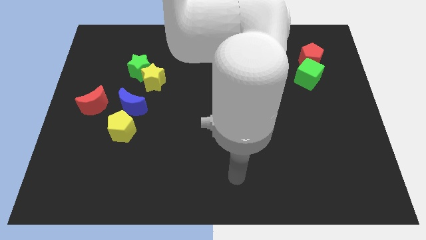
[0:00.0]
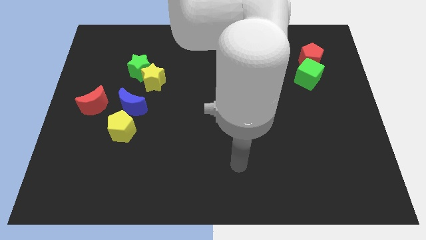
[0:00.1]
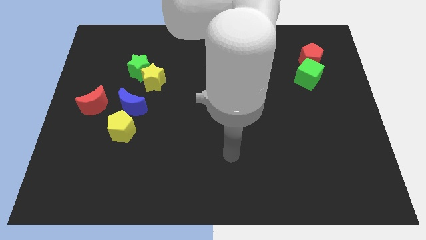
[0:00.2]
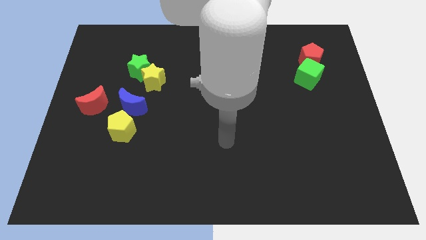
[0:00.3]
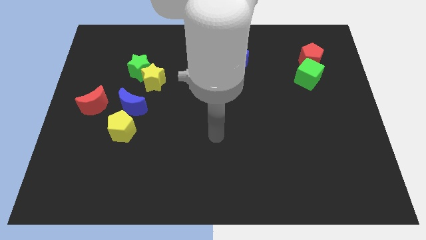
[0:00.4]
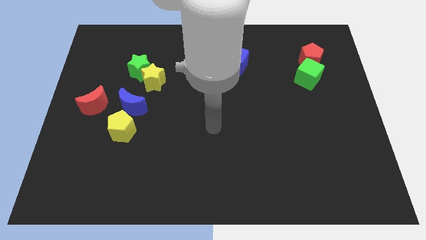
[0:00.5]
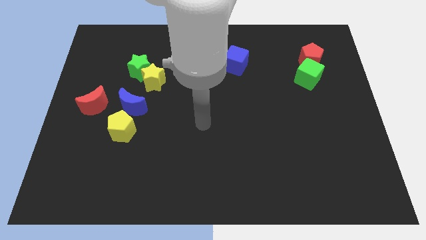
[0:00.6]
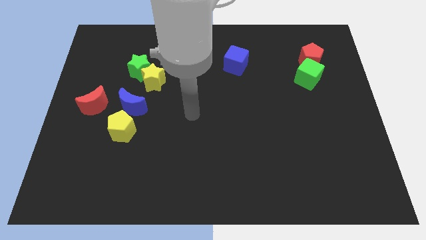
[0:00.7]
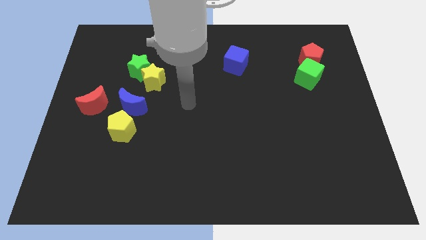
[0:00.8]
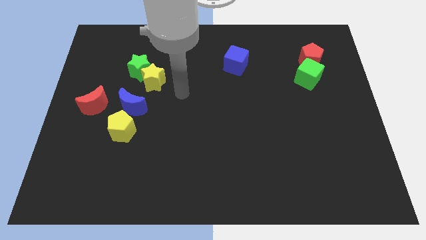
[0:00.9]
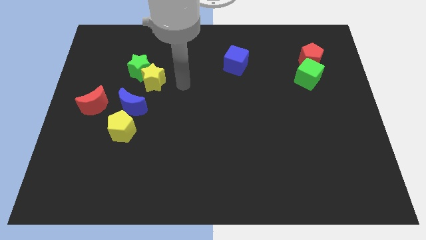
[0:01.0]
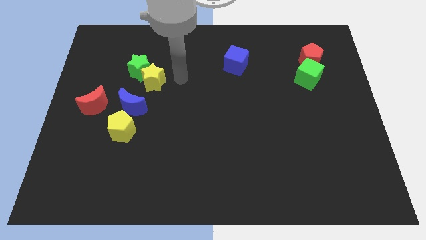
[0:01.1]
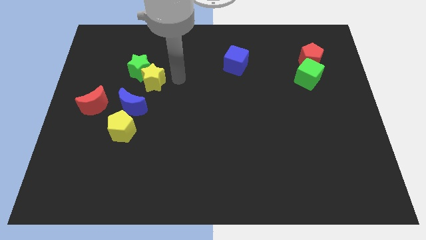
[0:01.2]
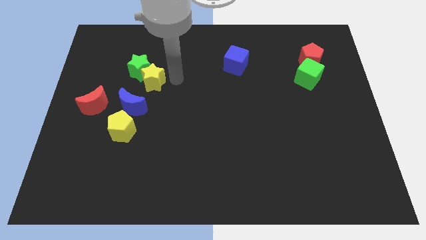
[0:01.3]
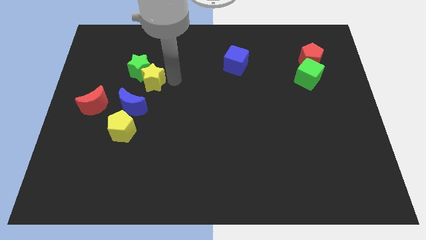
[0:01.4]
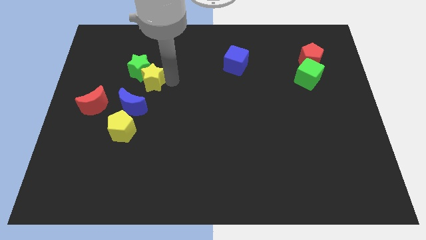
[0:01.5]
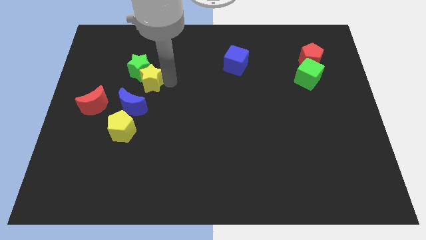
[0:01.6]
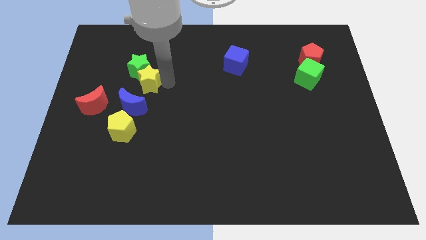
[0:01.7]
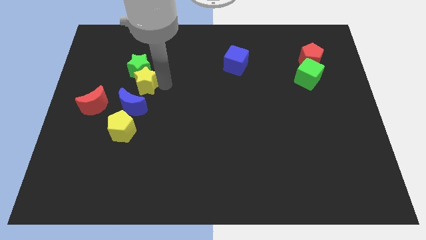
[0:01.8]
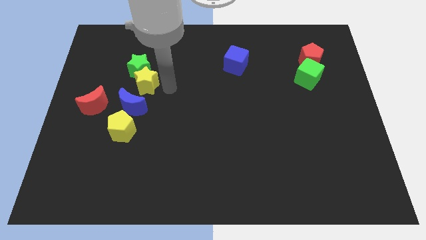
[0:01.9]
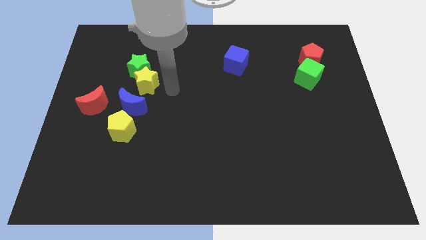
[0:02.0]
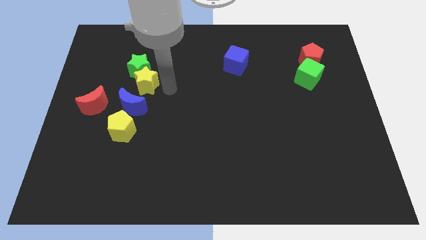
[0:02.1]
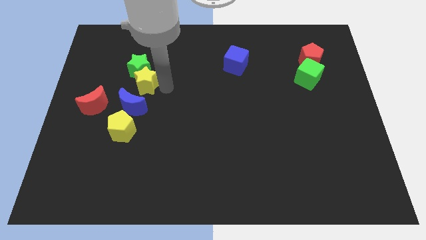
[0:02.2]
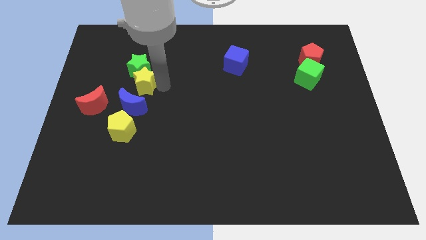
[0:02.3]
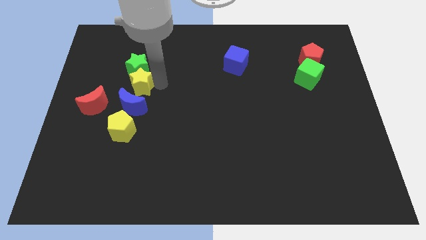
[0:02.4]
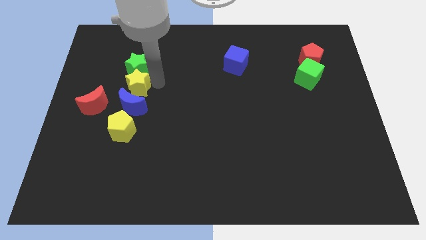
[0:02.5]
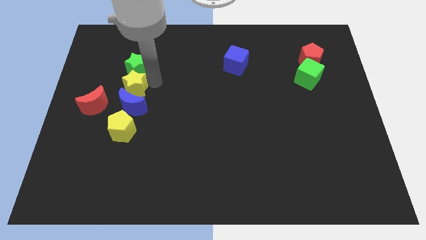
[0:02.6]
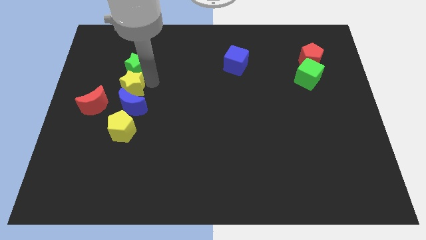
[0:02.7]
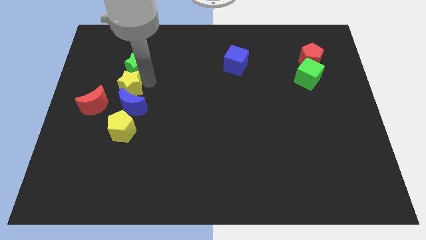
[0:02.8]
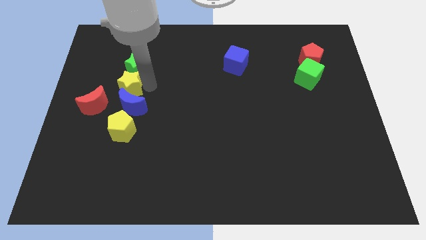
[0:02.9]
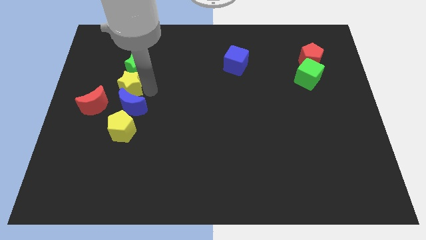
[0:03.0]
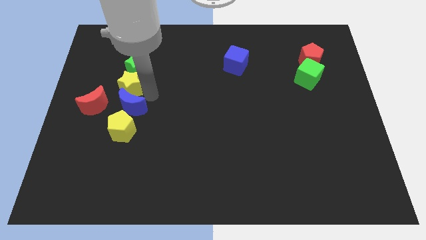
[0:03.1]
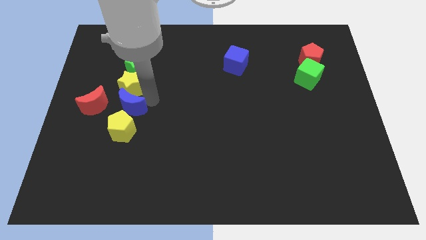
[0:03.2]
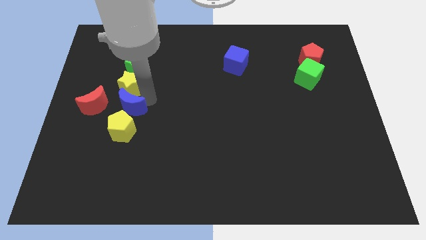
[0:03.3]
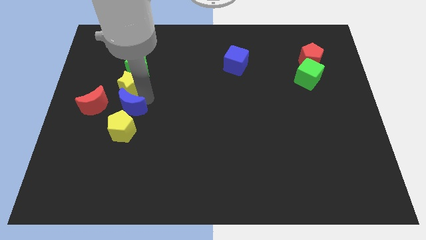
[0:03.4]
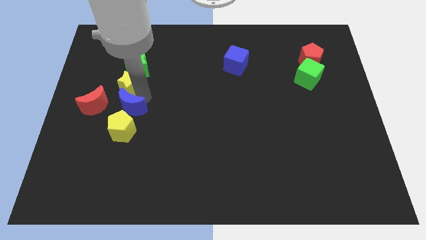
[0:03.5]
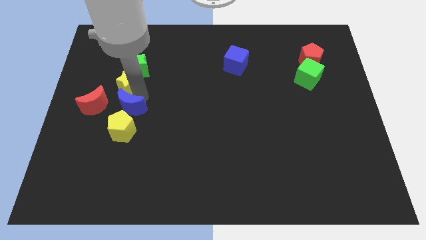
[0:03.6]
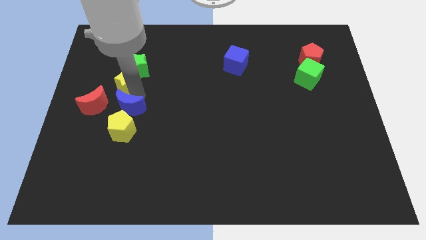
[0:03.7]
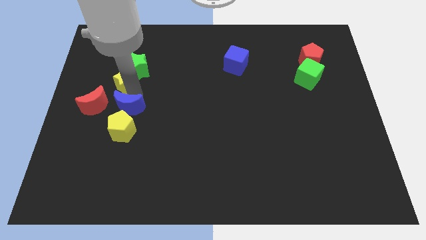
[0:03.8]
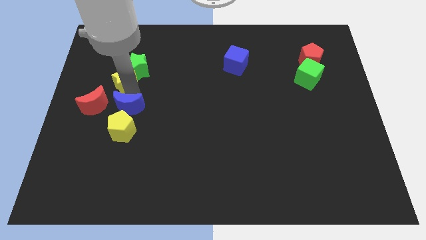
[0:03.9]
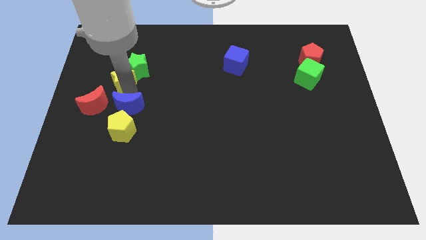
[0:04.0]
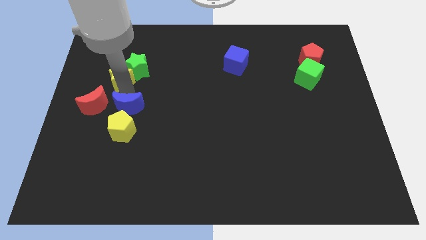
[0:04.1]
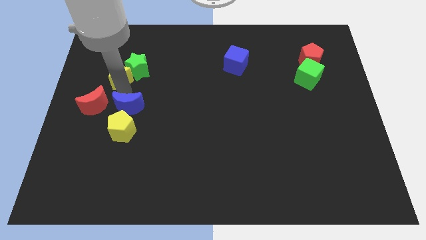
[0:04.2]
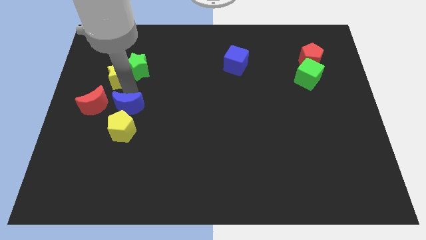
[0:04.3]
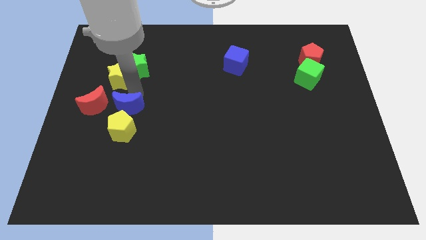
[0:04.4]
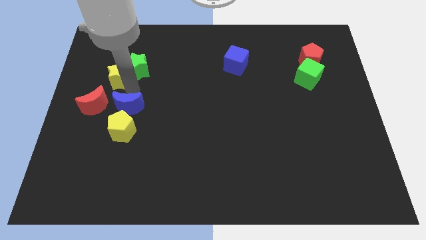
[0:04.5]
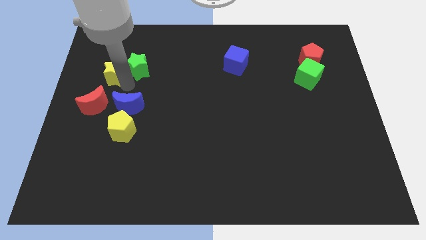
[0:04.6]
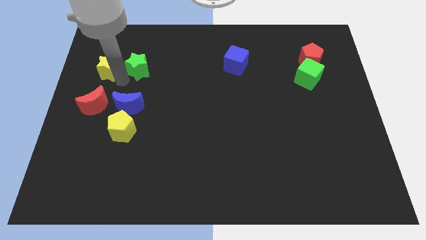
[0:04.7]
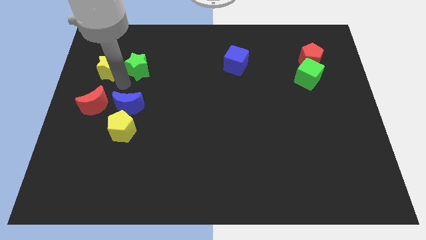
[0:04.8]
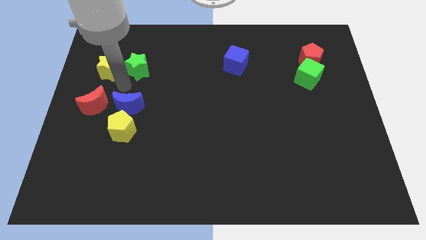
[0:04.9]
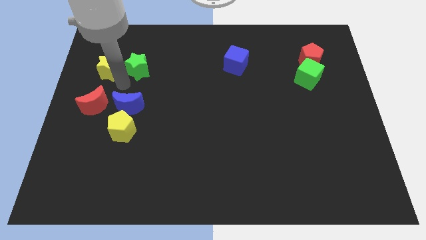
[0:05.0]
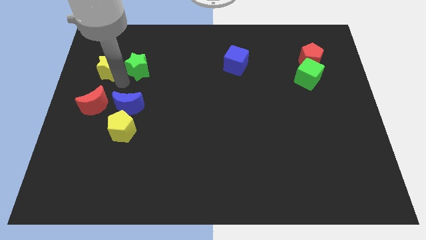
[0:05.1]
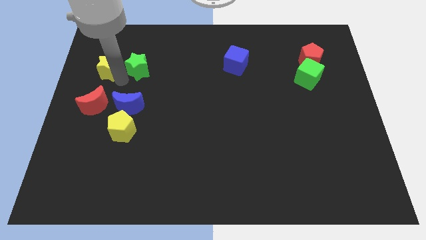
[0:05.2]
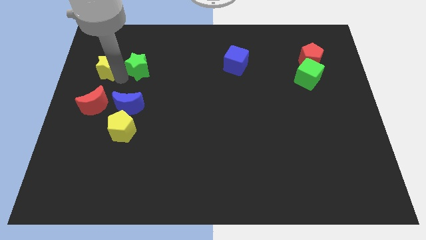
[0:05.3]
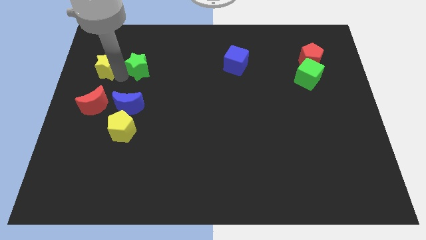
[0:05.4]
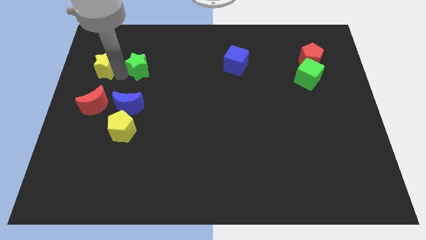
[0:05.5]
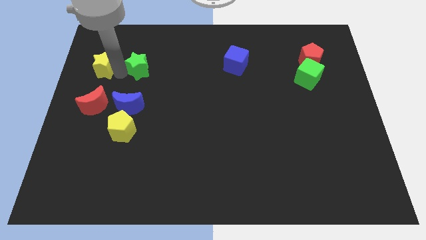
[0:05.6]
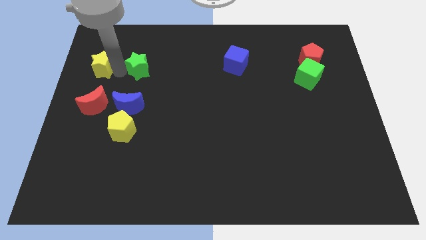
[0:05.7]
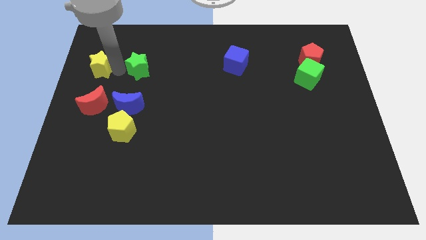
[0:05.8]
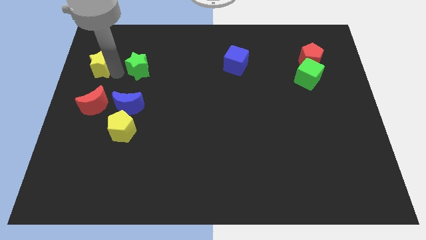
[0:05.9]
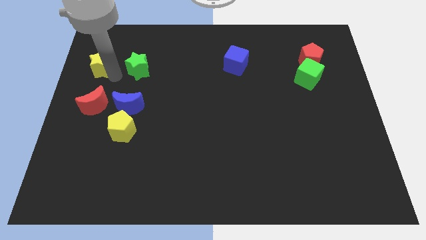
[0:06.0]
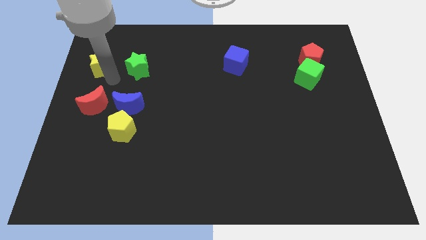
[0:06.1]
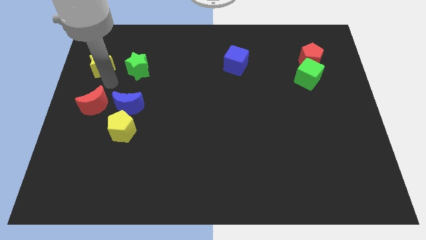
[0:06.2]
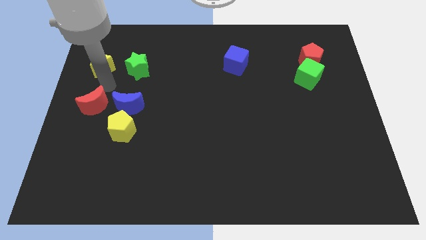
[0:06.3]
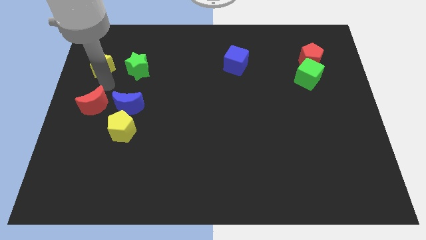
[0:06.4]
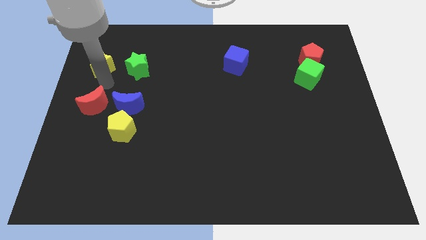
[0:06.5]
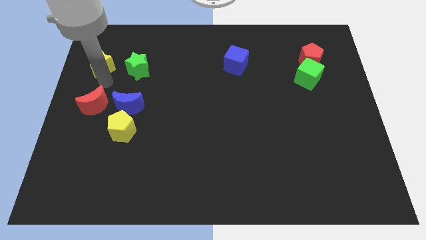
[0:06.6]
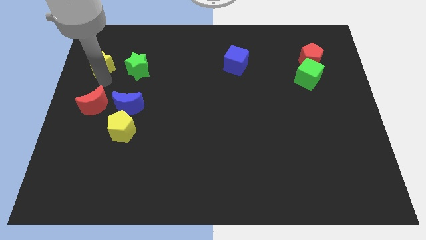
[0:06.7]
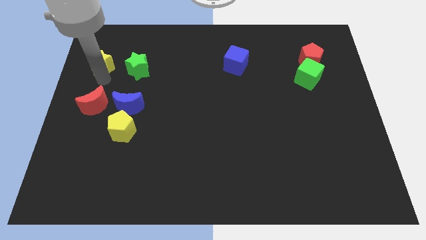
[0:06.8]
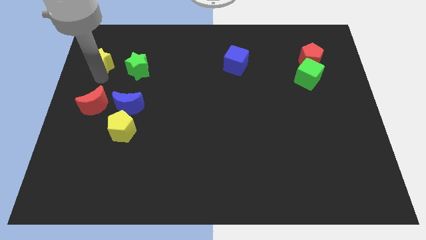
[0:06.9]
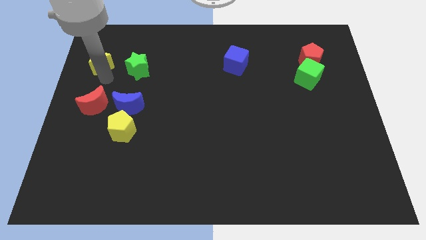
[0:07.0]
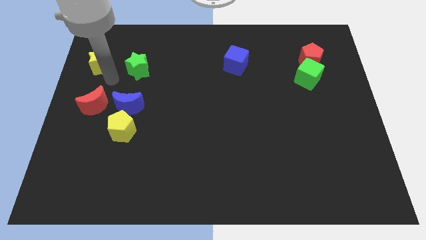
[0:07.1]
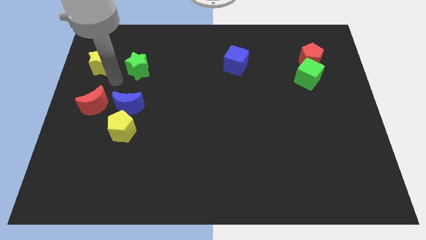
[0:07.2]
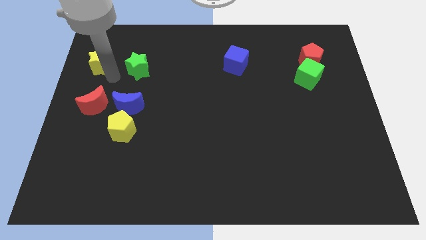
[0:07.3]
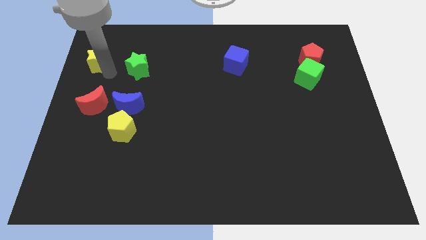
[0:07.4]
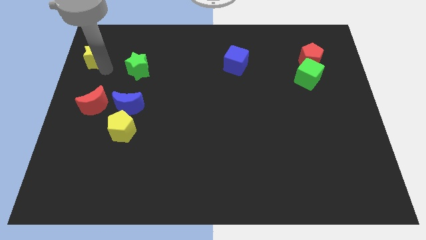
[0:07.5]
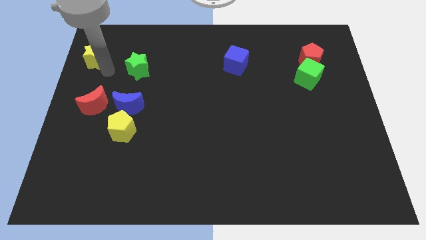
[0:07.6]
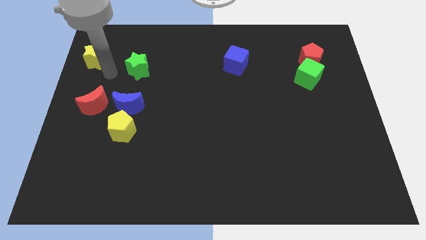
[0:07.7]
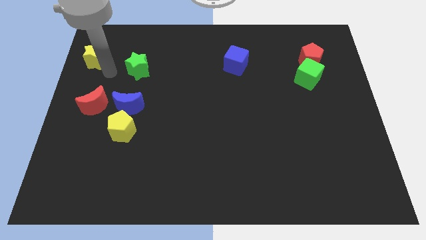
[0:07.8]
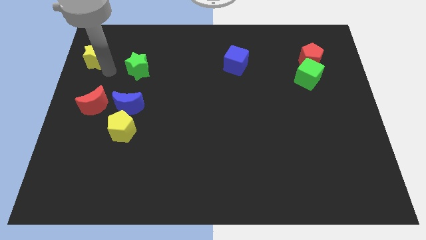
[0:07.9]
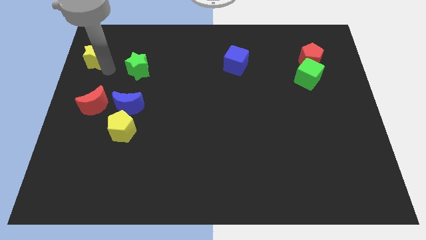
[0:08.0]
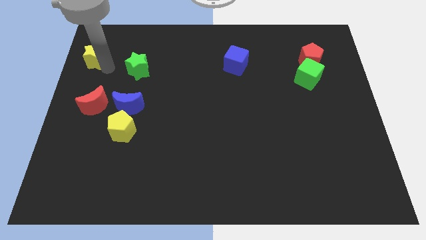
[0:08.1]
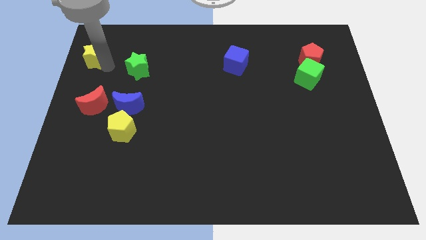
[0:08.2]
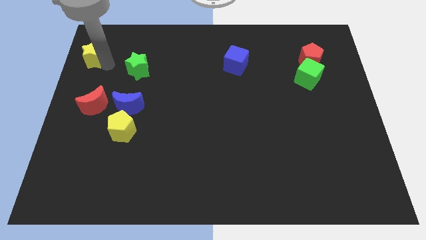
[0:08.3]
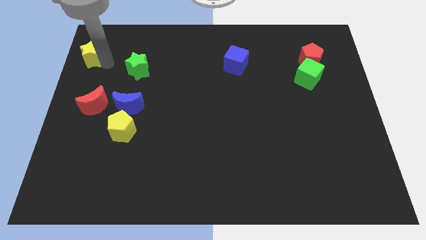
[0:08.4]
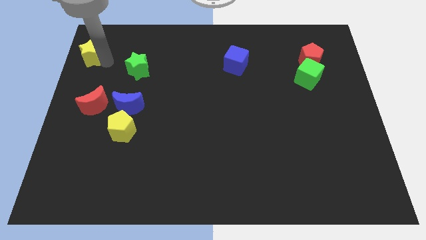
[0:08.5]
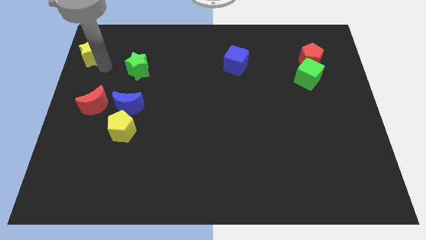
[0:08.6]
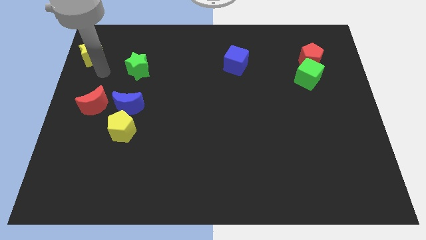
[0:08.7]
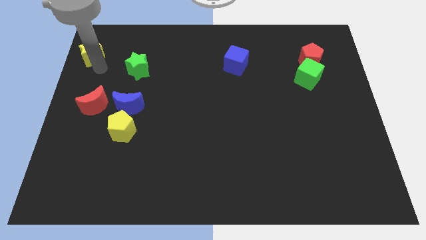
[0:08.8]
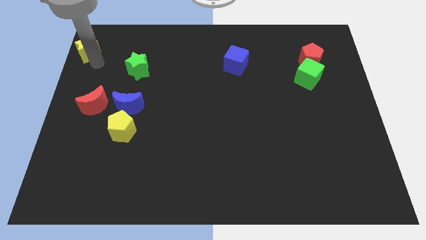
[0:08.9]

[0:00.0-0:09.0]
put the yellow star to the top left corner
